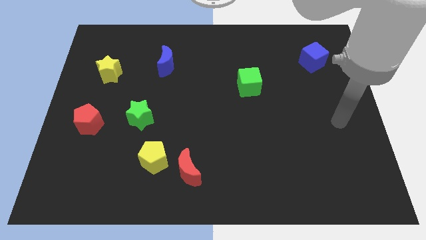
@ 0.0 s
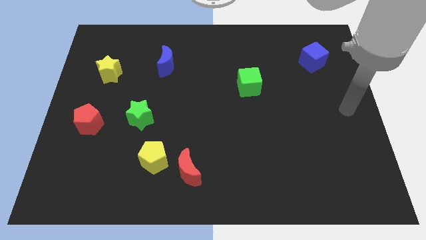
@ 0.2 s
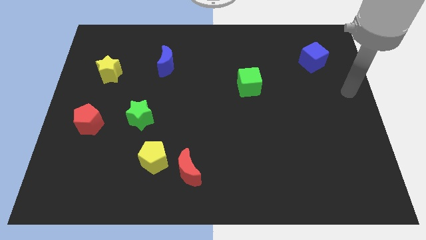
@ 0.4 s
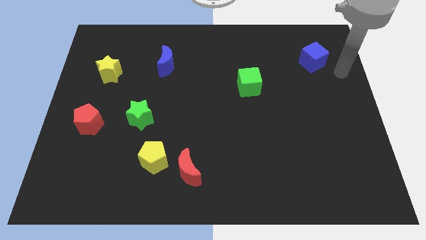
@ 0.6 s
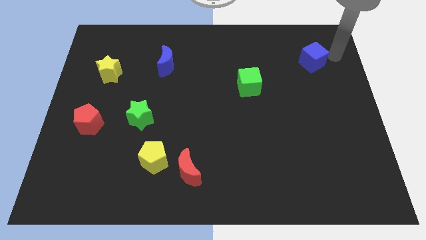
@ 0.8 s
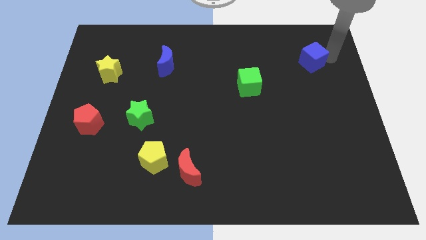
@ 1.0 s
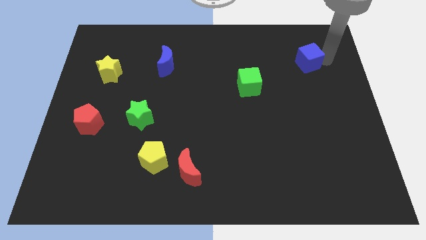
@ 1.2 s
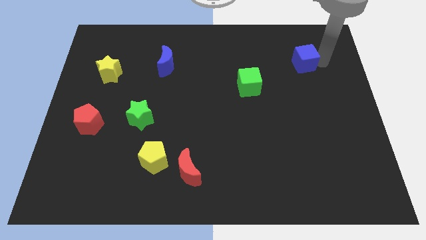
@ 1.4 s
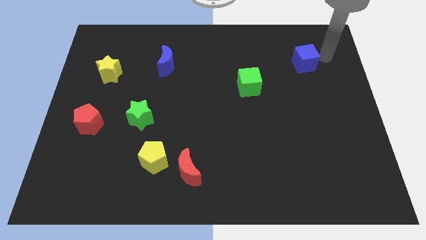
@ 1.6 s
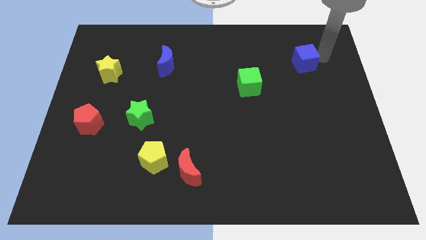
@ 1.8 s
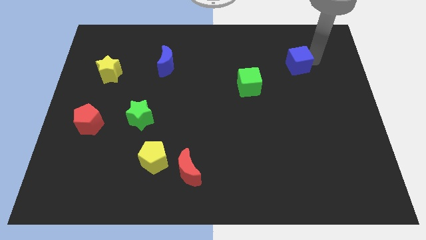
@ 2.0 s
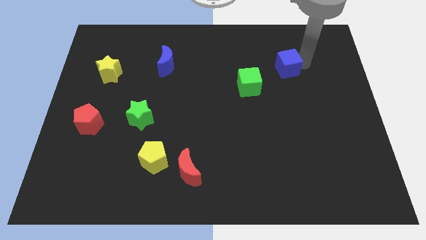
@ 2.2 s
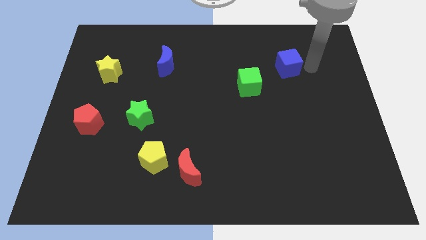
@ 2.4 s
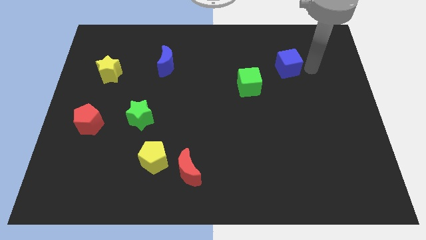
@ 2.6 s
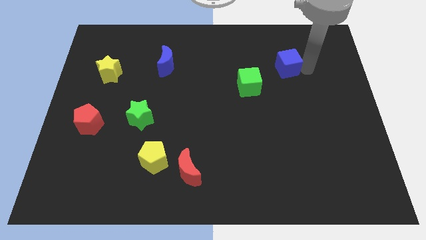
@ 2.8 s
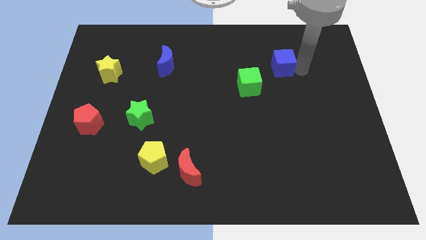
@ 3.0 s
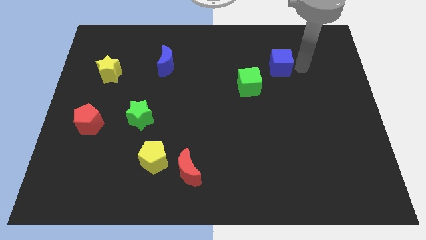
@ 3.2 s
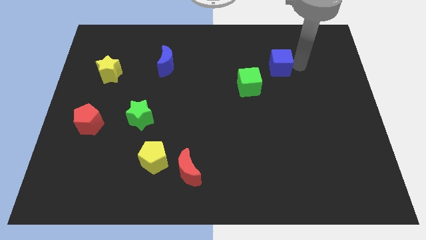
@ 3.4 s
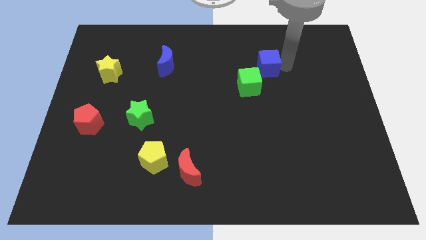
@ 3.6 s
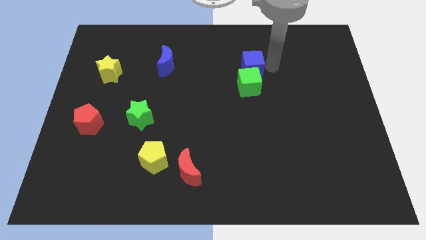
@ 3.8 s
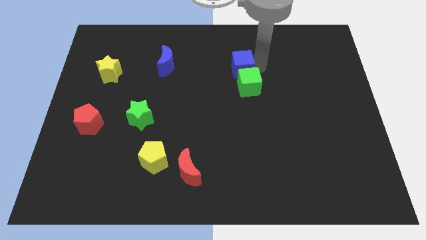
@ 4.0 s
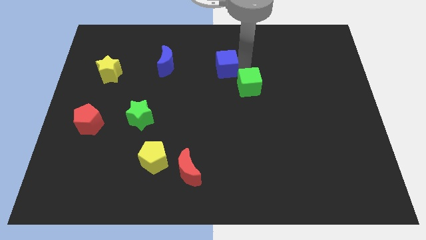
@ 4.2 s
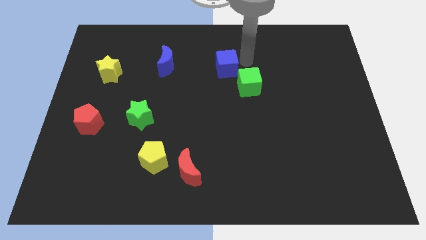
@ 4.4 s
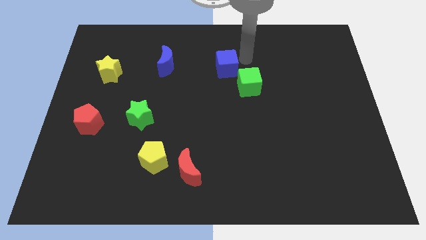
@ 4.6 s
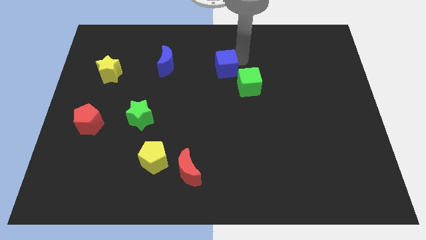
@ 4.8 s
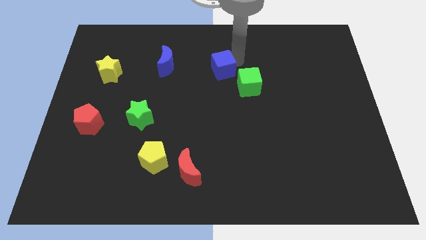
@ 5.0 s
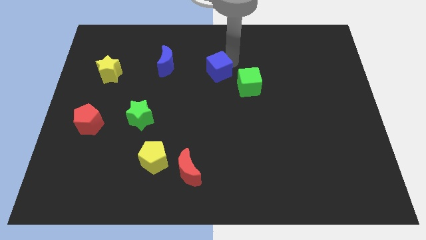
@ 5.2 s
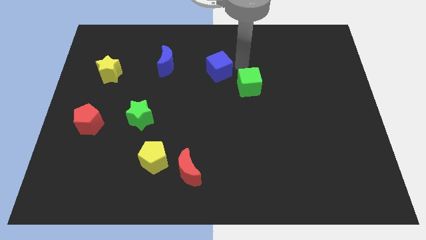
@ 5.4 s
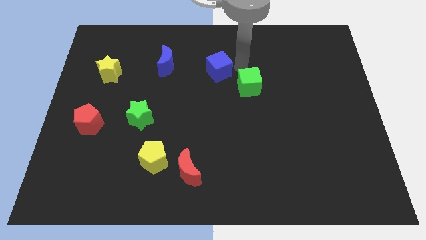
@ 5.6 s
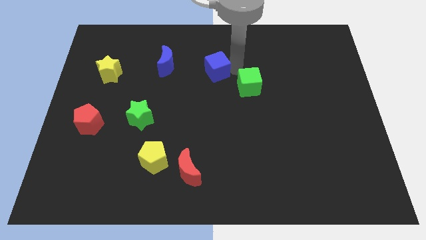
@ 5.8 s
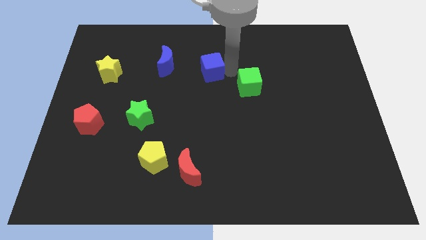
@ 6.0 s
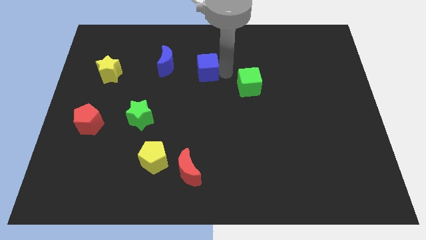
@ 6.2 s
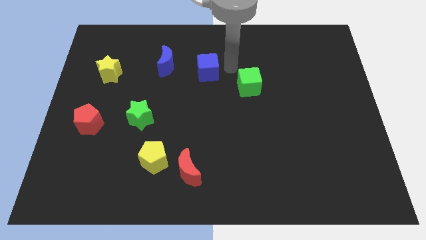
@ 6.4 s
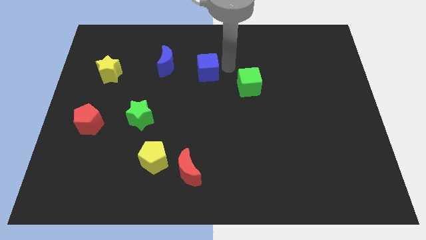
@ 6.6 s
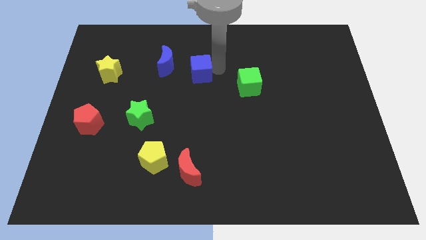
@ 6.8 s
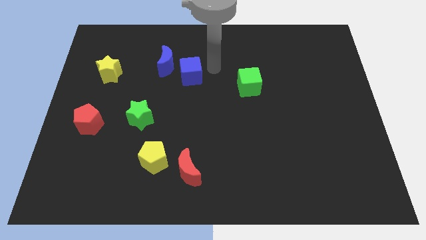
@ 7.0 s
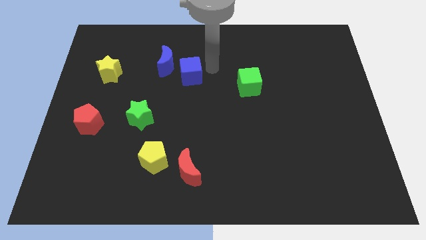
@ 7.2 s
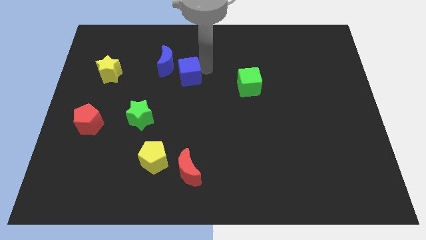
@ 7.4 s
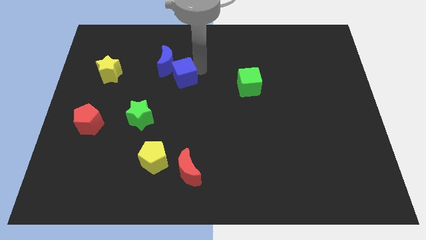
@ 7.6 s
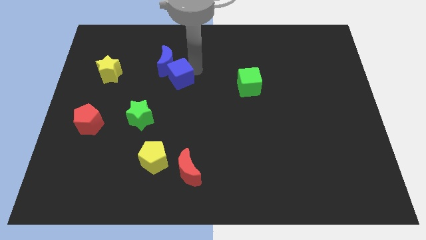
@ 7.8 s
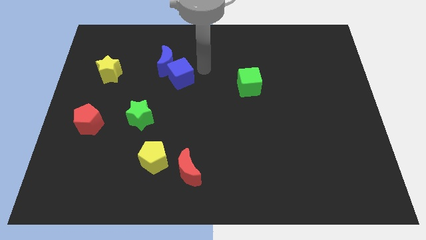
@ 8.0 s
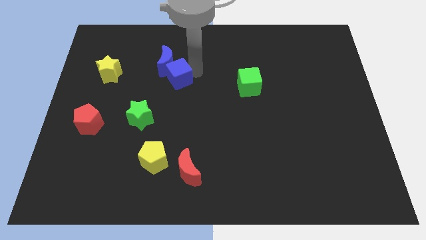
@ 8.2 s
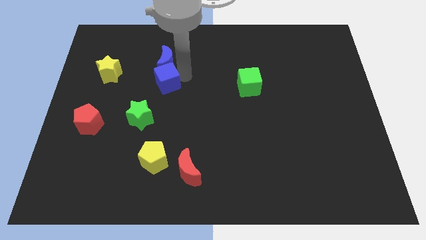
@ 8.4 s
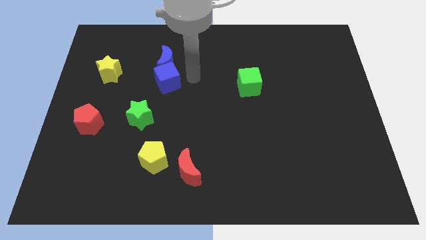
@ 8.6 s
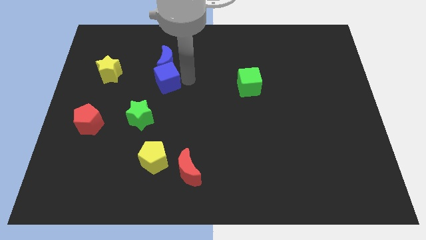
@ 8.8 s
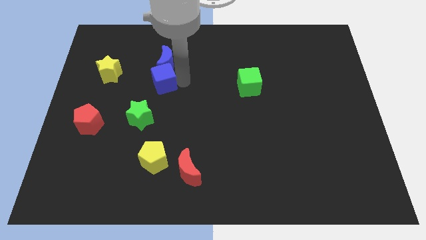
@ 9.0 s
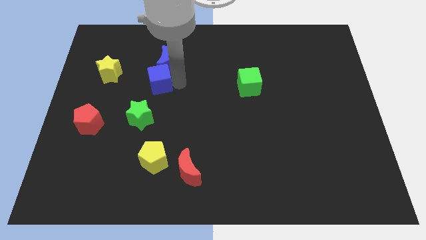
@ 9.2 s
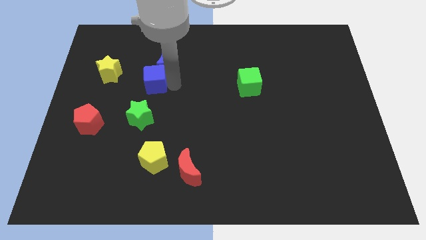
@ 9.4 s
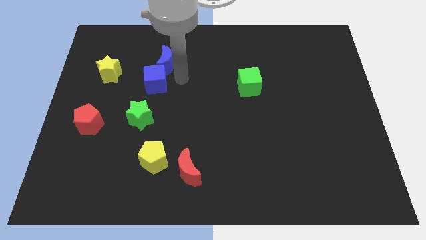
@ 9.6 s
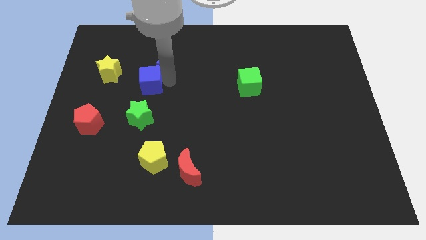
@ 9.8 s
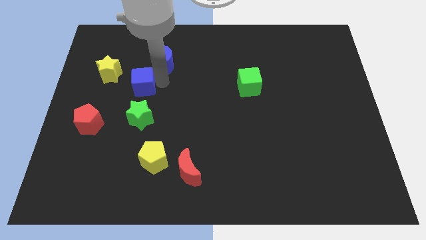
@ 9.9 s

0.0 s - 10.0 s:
push the blue cube diagonally down and to the right of the yellow star

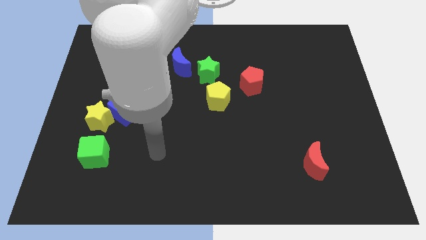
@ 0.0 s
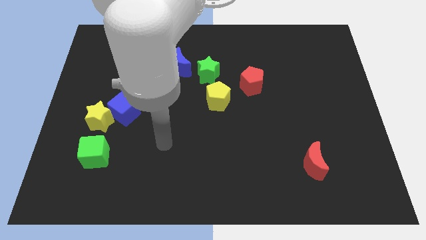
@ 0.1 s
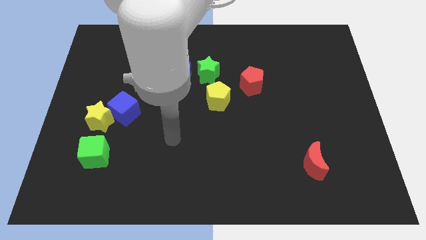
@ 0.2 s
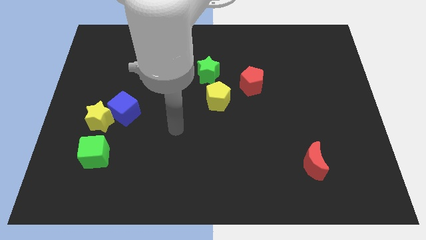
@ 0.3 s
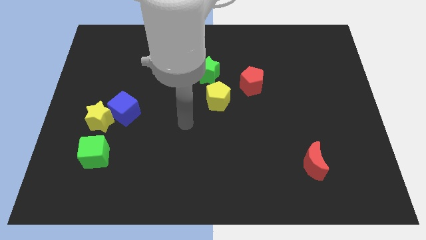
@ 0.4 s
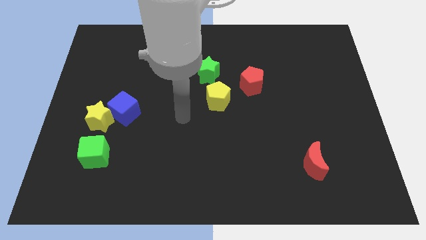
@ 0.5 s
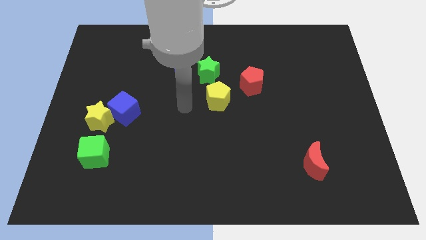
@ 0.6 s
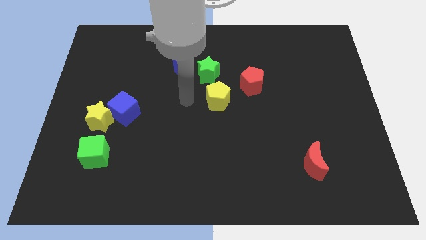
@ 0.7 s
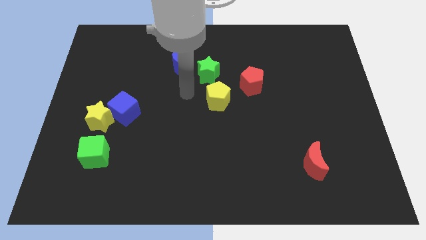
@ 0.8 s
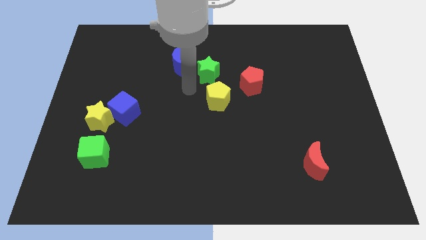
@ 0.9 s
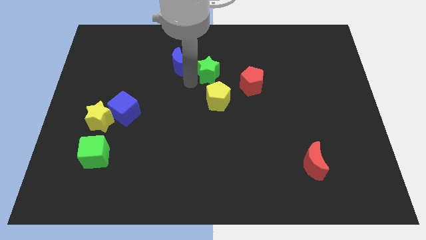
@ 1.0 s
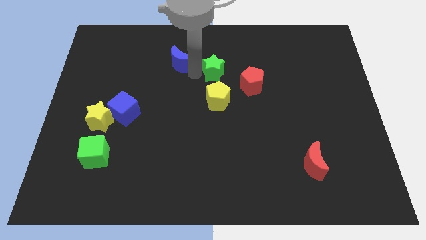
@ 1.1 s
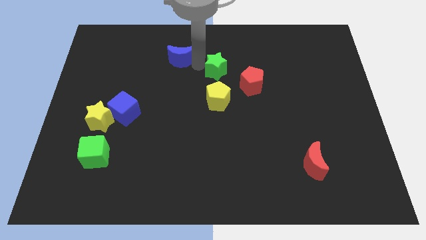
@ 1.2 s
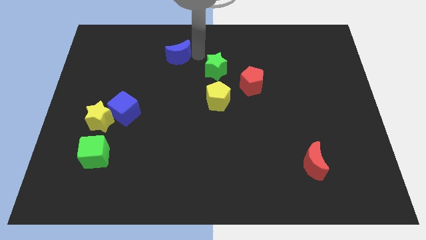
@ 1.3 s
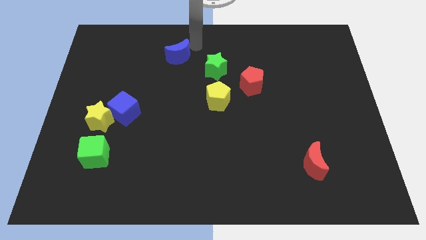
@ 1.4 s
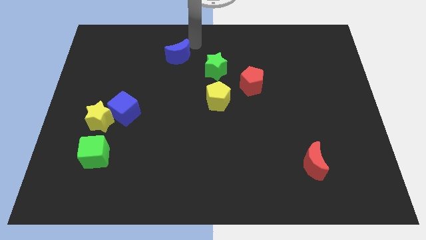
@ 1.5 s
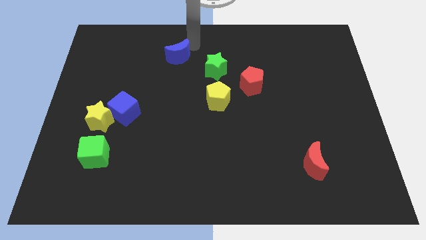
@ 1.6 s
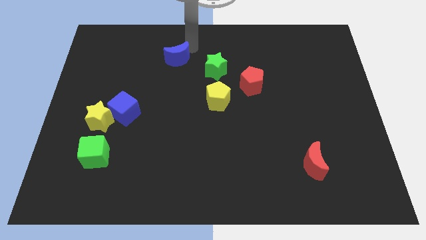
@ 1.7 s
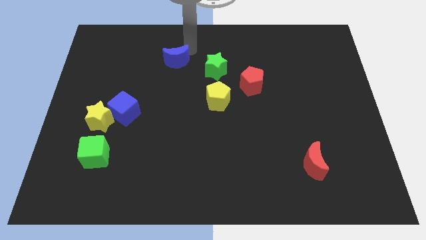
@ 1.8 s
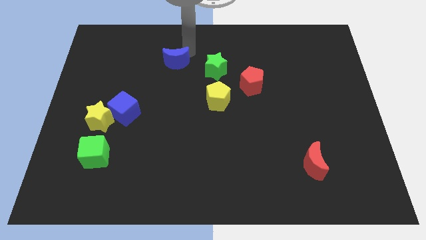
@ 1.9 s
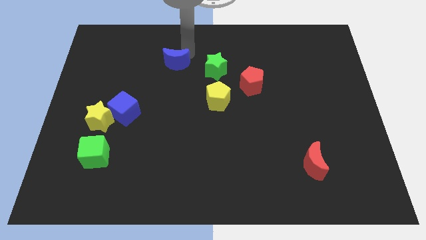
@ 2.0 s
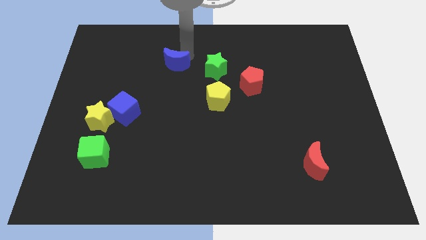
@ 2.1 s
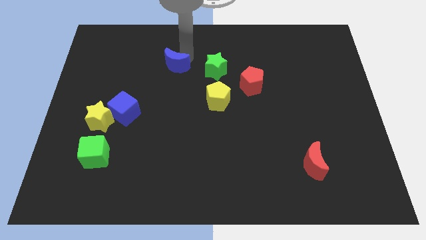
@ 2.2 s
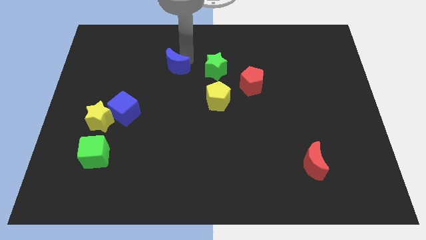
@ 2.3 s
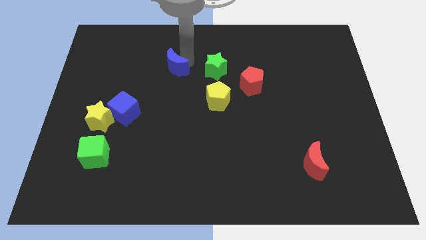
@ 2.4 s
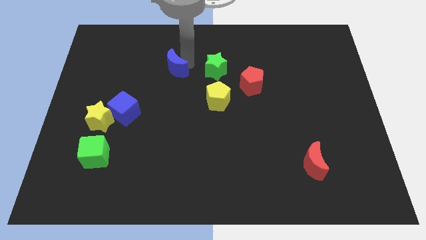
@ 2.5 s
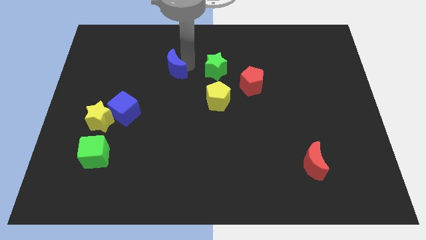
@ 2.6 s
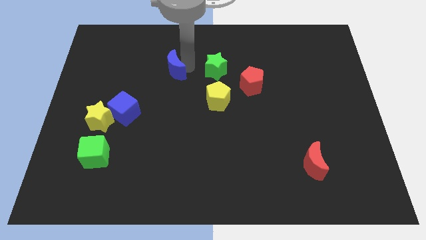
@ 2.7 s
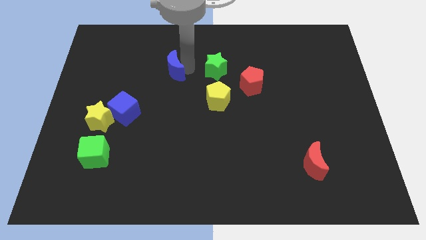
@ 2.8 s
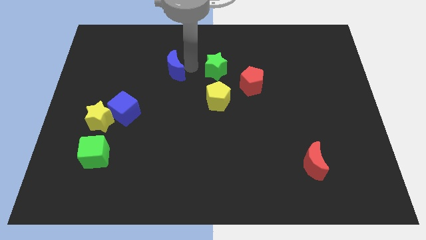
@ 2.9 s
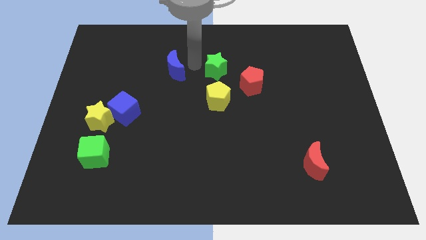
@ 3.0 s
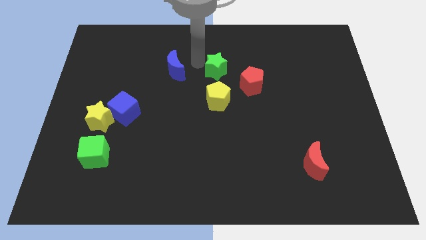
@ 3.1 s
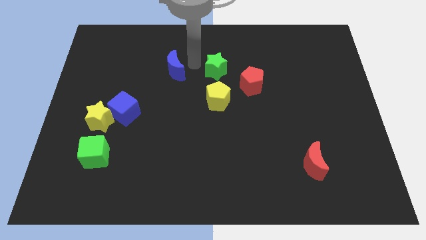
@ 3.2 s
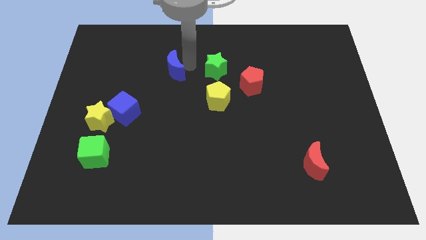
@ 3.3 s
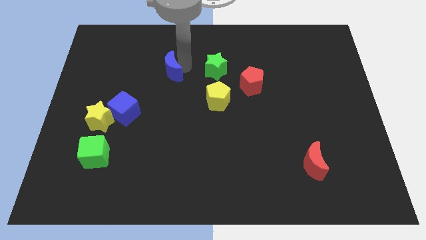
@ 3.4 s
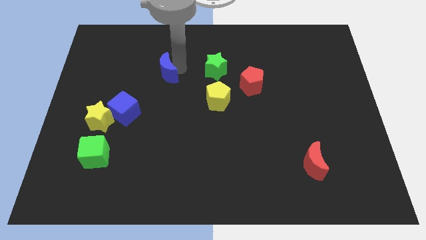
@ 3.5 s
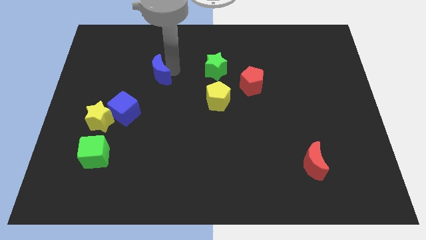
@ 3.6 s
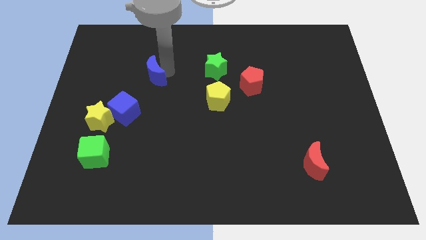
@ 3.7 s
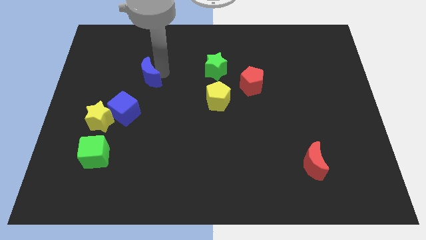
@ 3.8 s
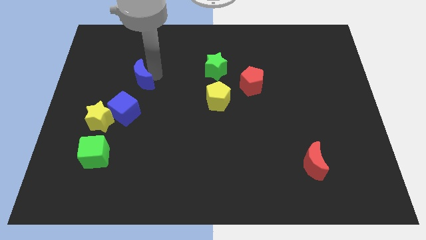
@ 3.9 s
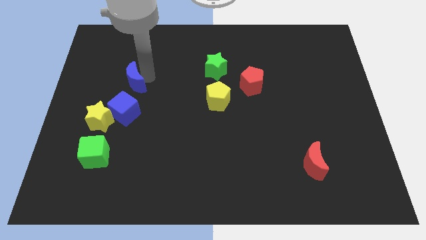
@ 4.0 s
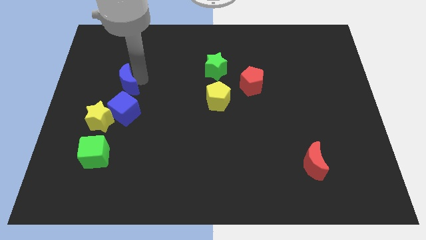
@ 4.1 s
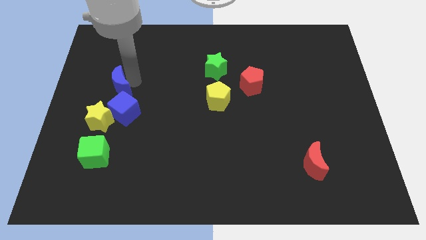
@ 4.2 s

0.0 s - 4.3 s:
push the blue moon to the top left side of the blue cube
